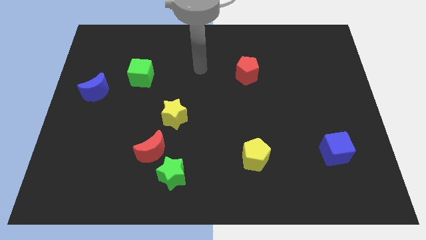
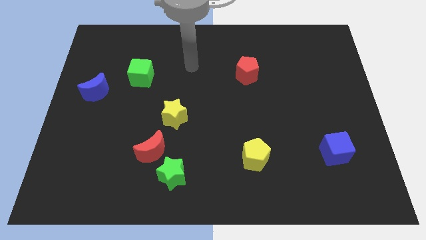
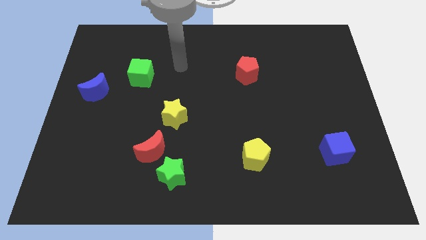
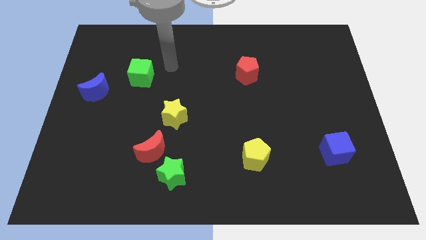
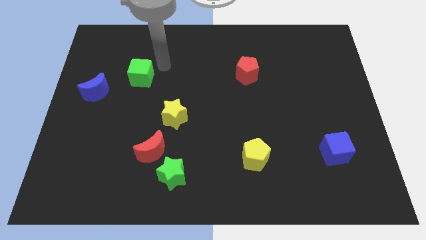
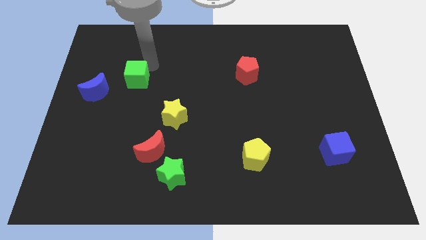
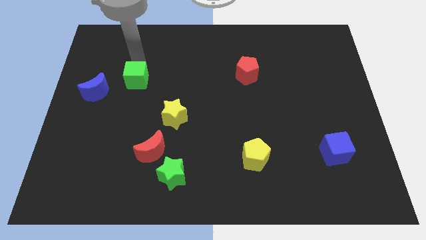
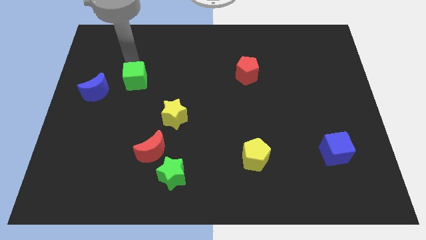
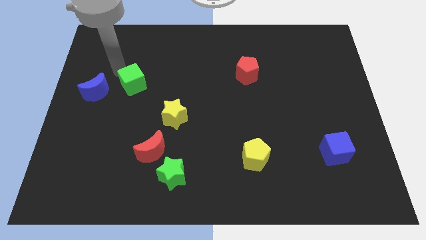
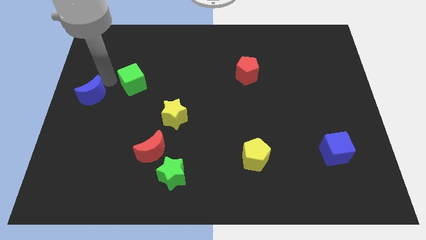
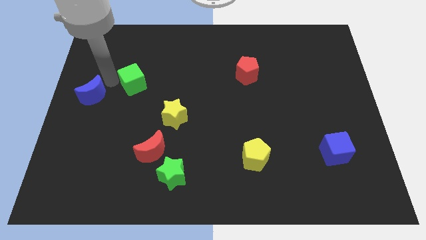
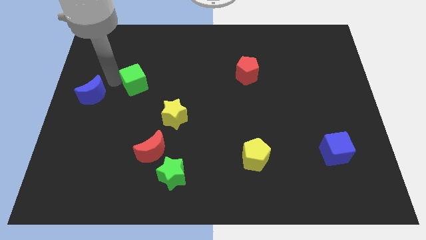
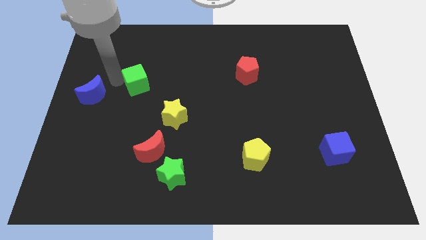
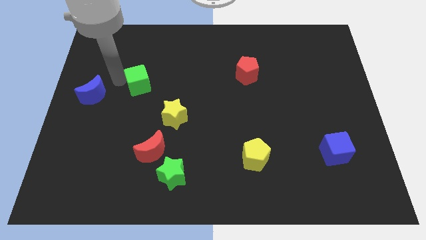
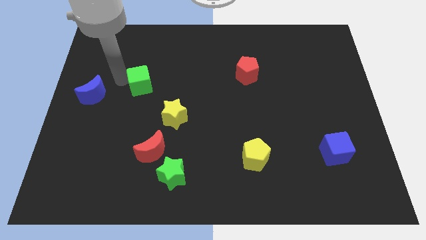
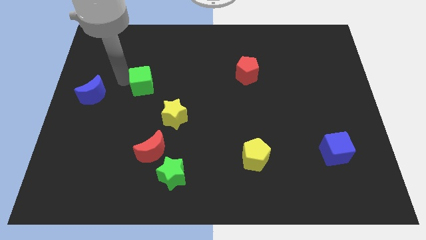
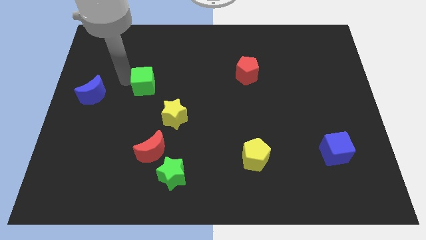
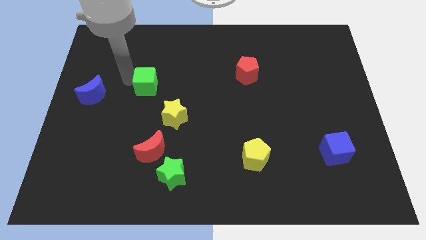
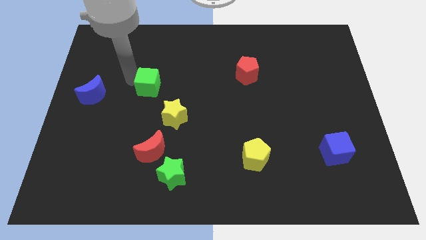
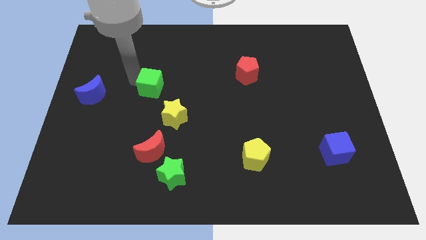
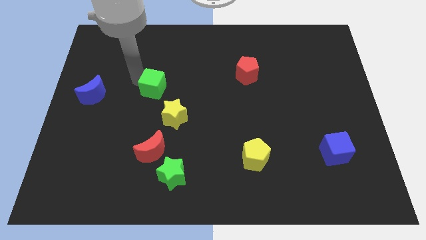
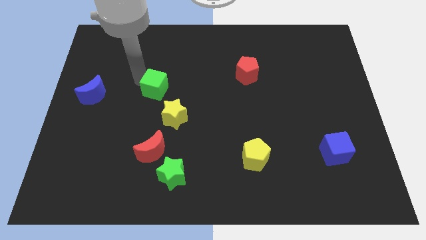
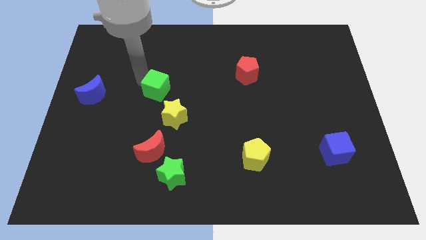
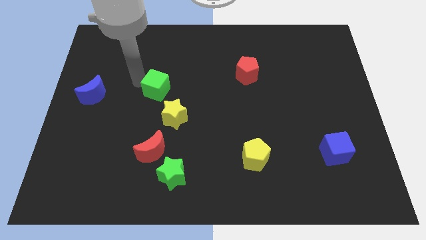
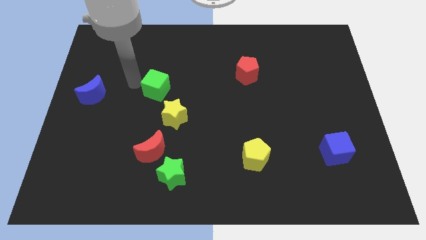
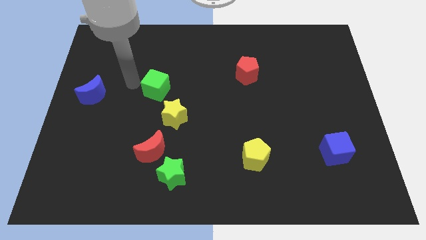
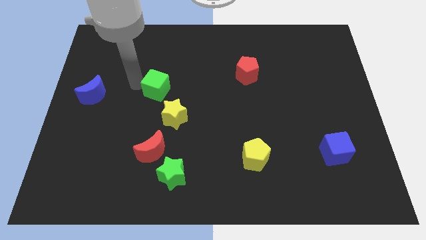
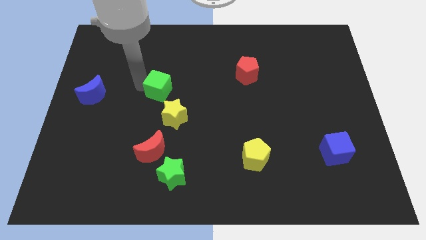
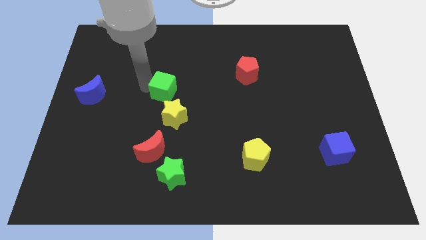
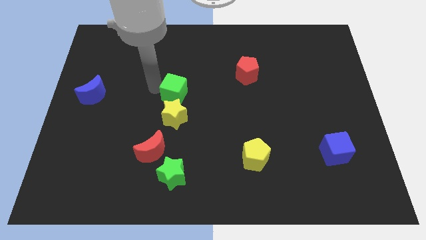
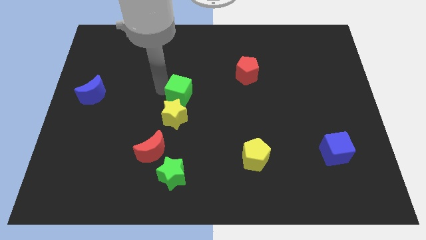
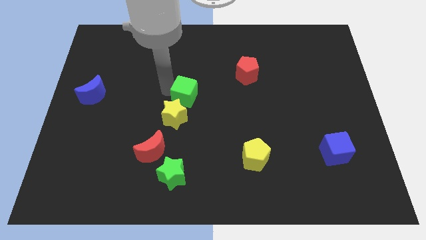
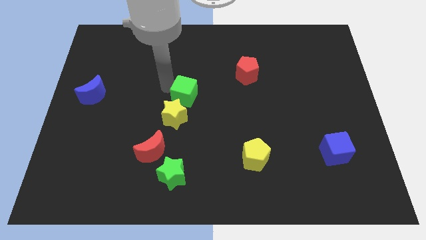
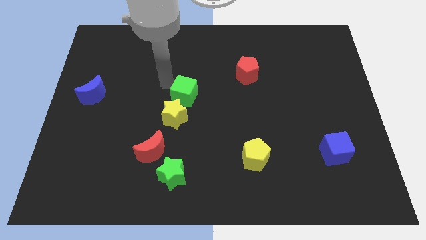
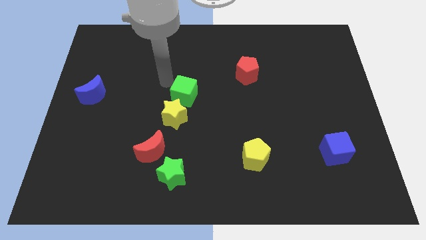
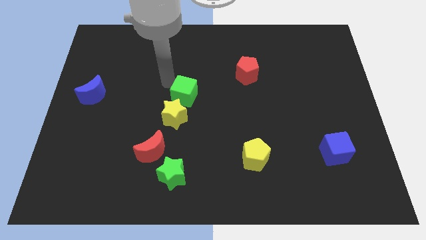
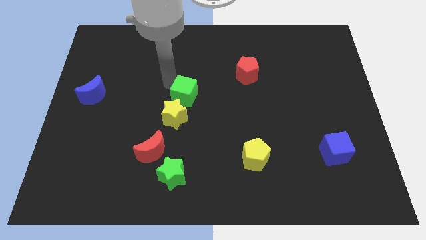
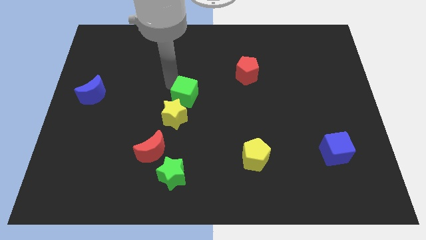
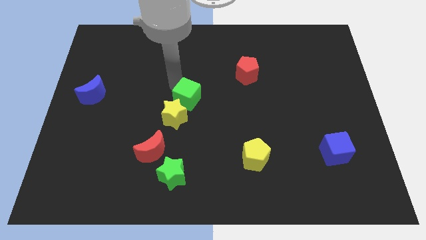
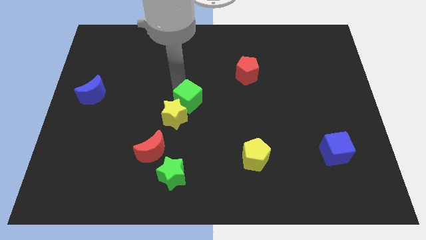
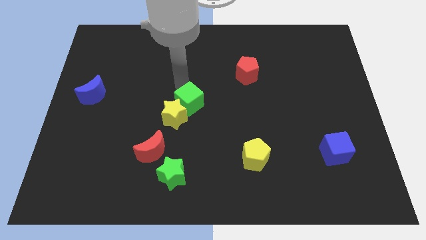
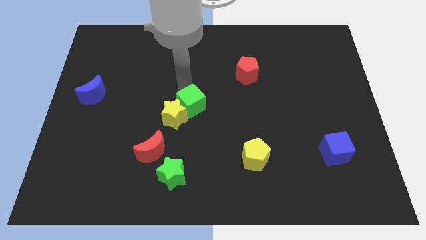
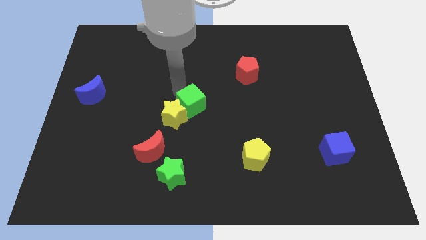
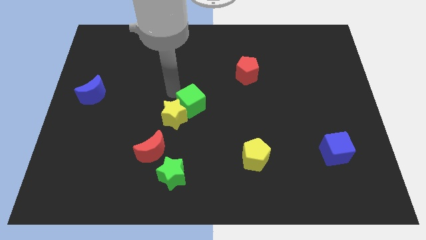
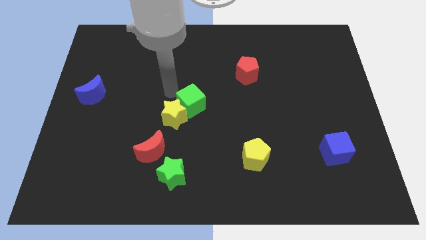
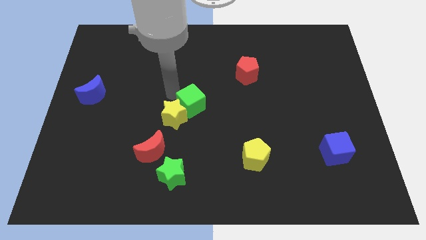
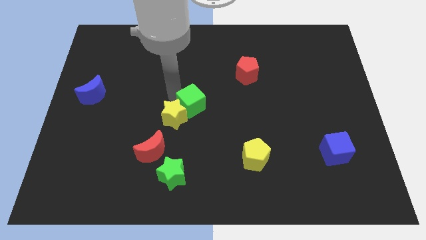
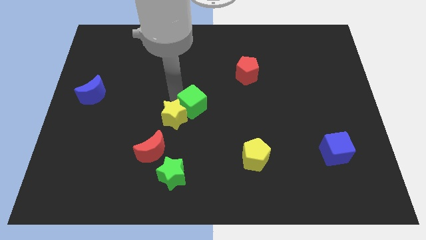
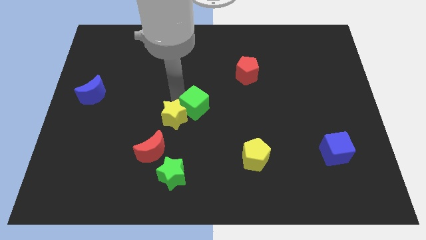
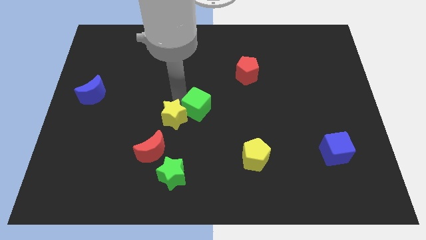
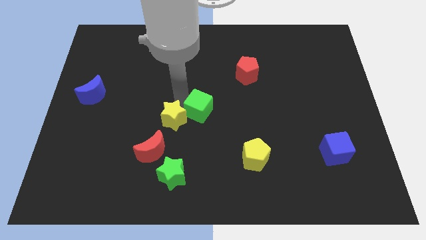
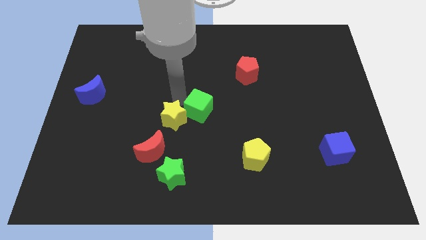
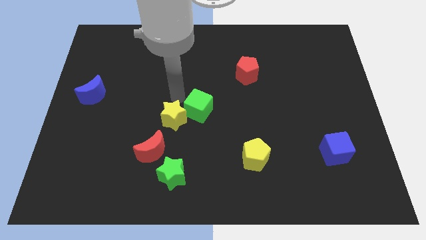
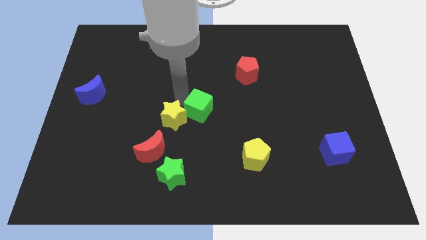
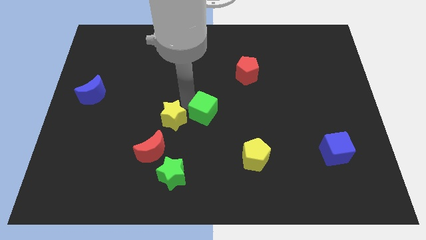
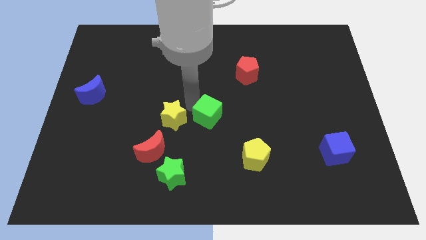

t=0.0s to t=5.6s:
slide the green cube down and then right

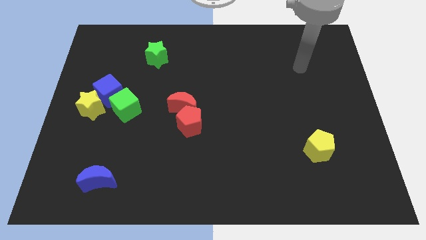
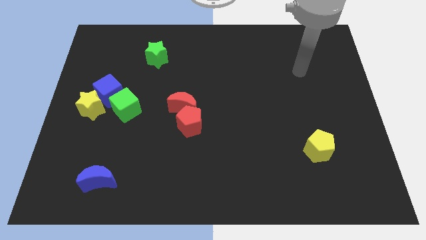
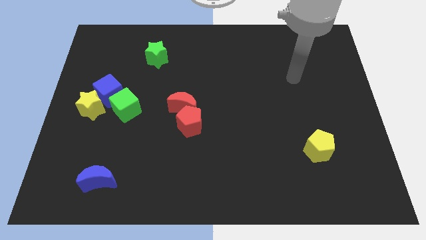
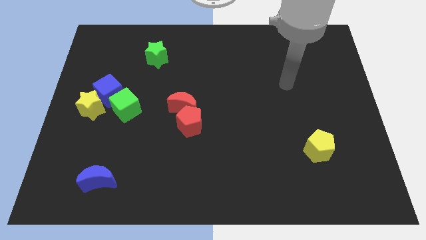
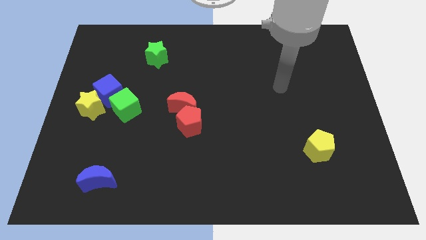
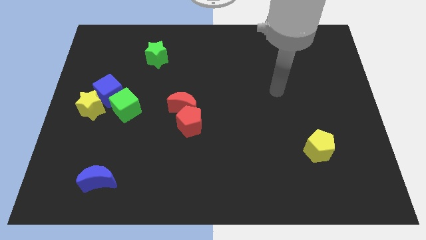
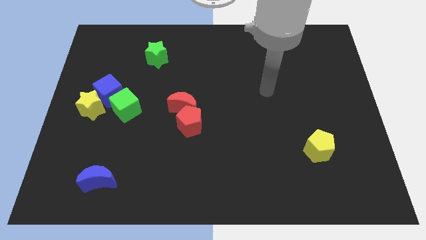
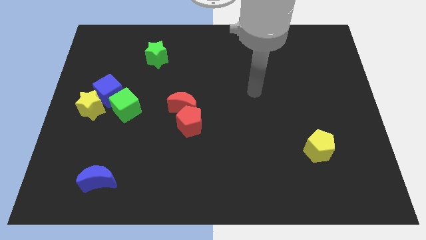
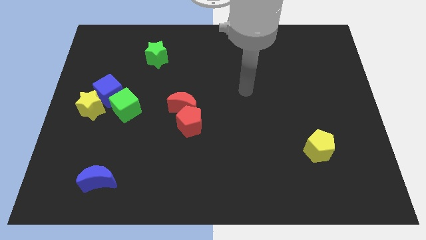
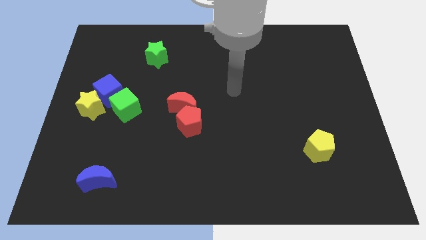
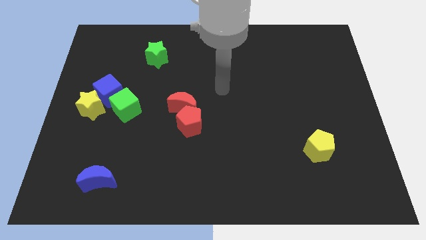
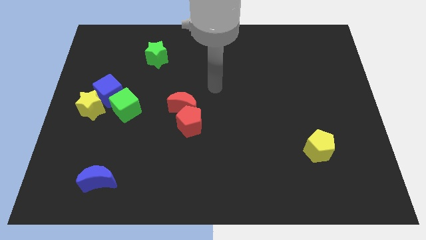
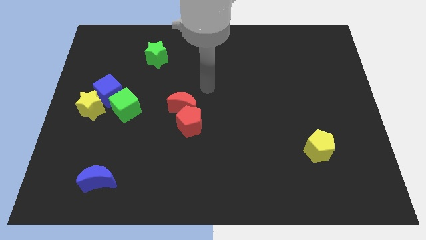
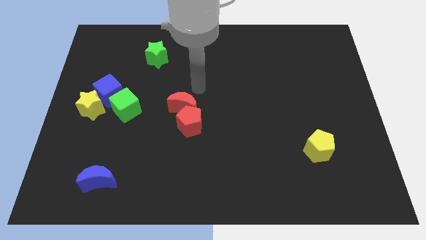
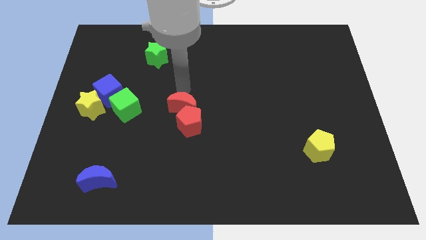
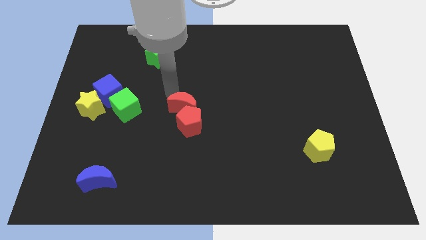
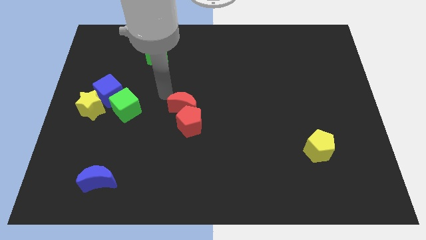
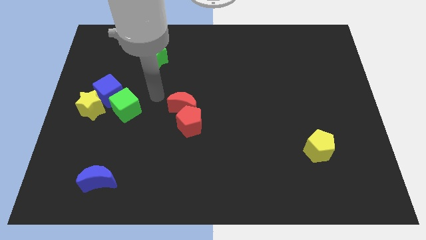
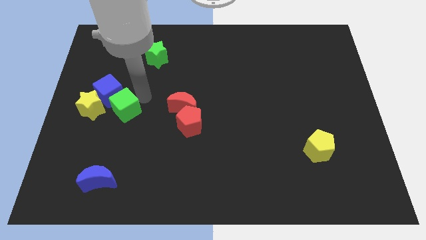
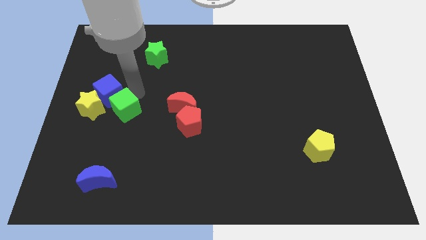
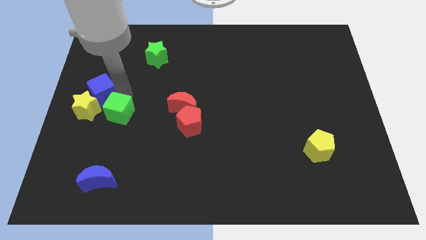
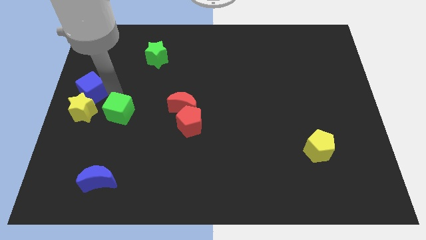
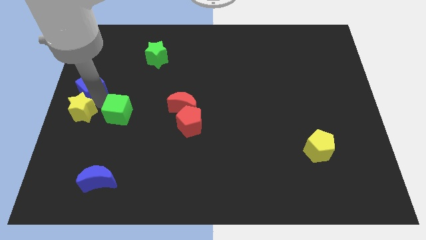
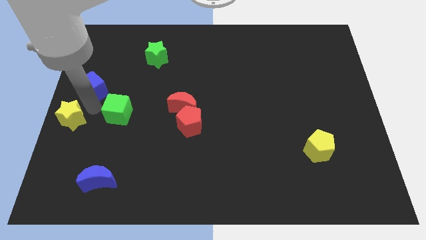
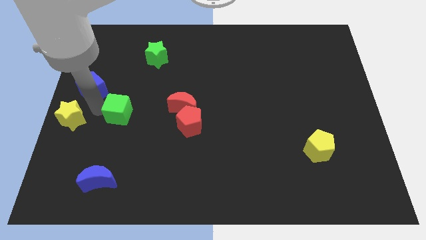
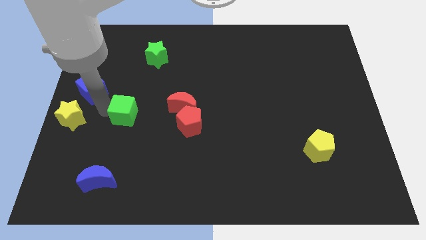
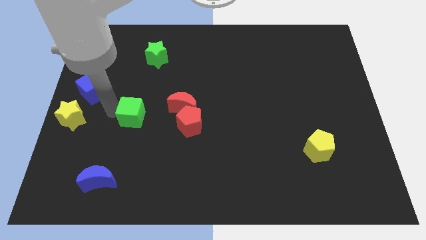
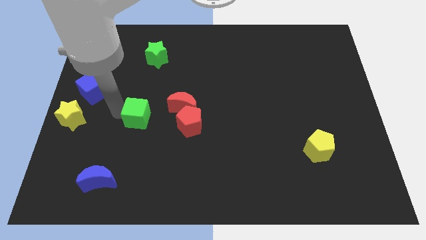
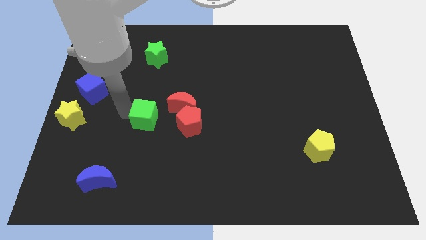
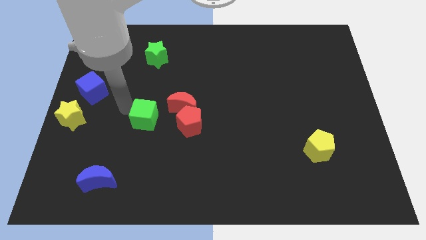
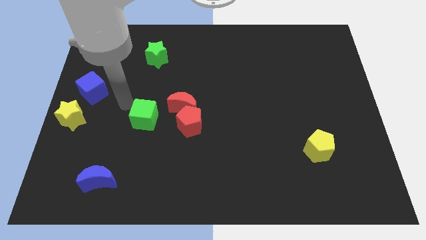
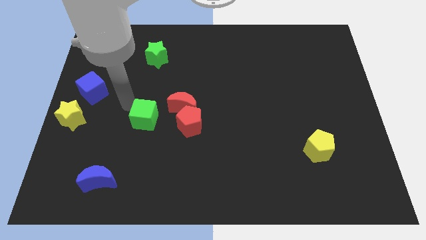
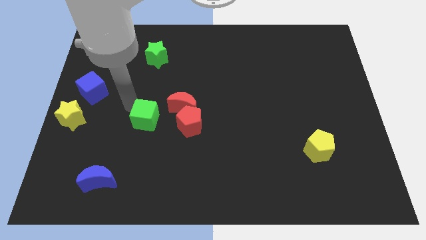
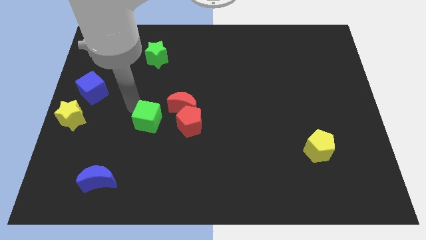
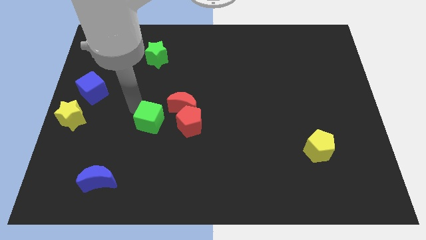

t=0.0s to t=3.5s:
push the green cube a bit downwards and right
